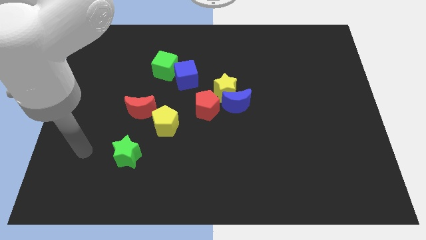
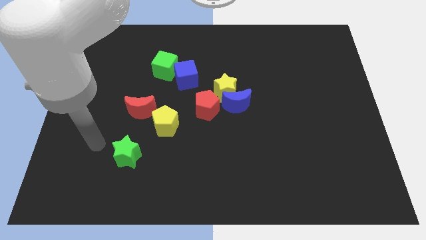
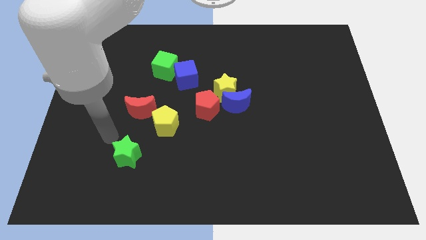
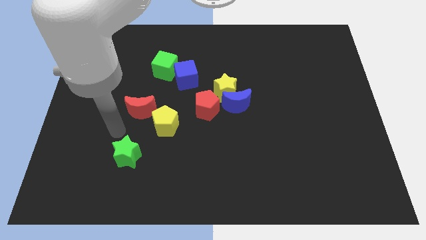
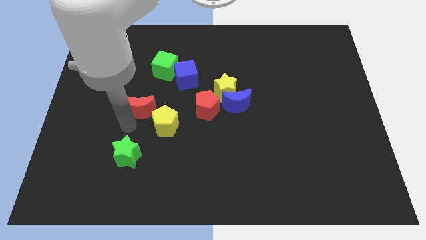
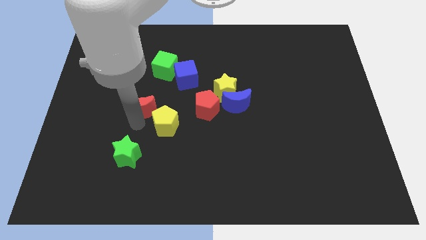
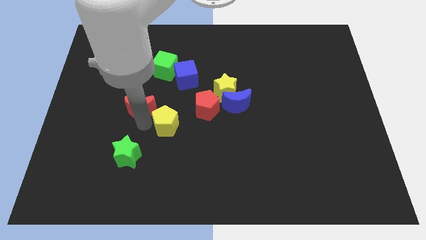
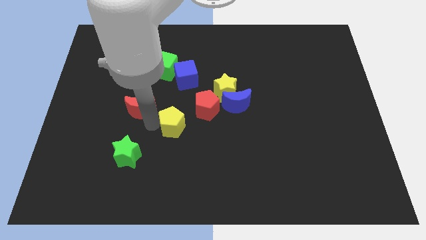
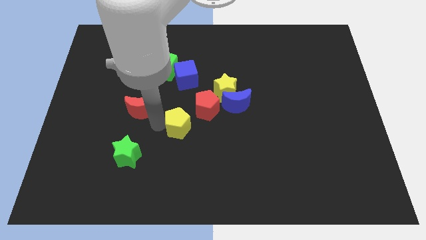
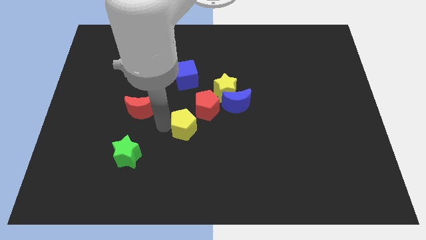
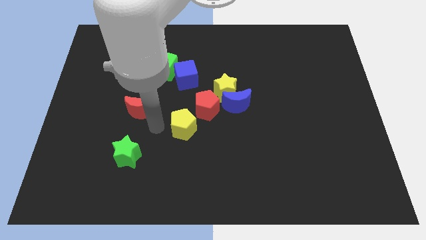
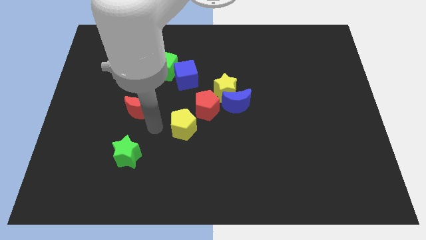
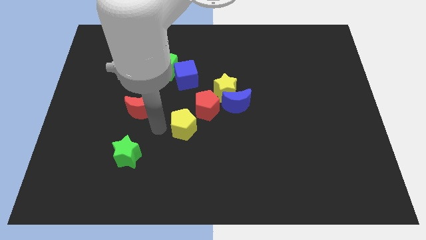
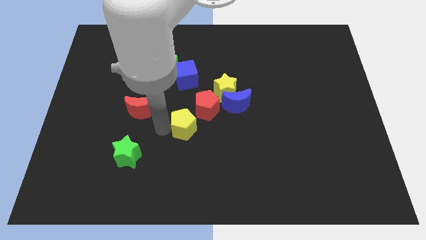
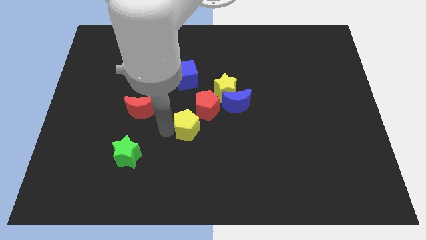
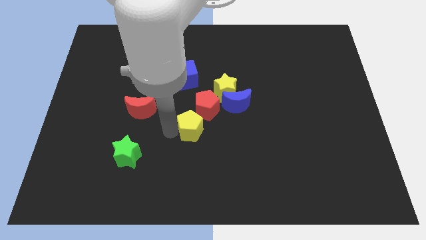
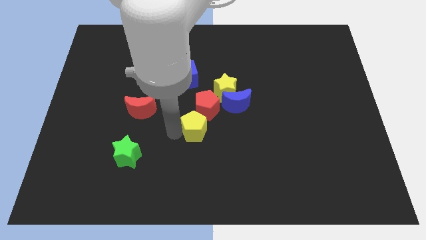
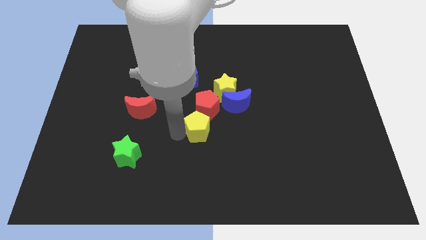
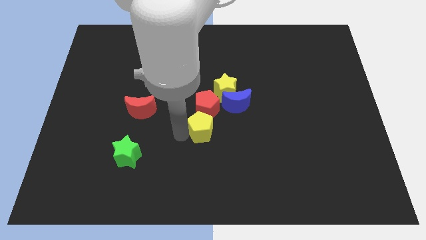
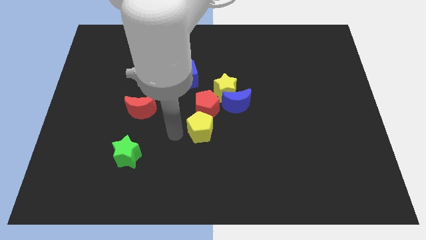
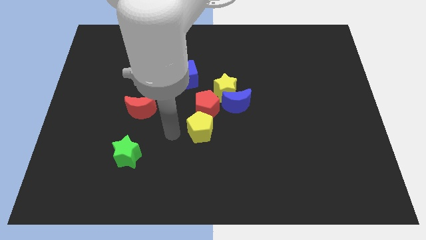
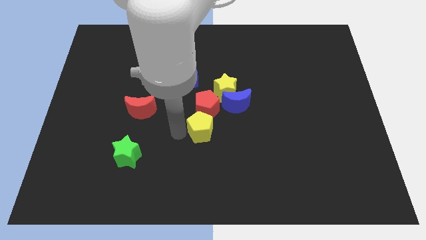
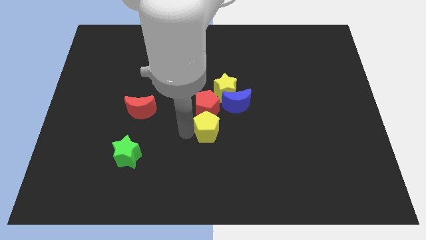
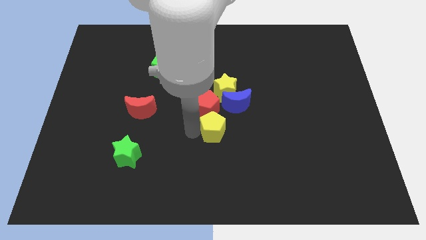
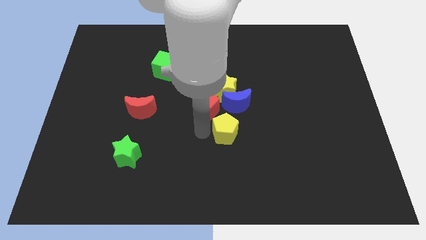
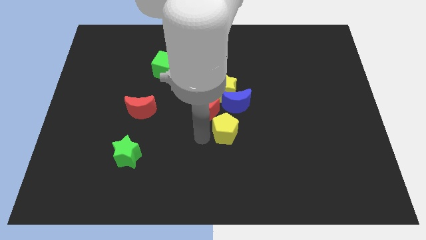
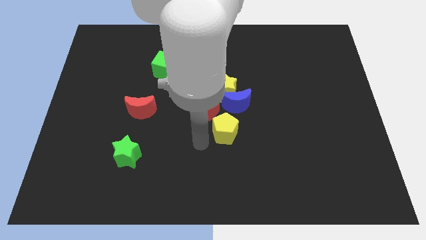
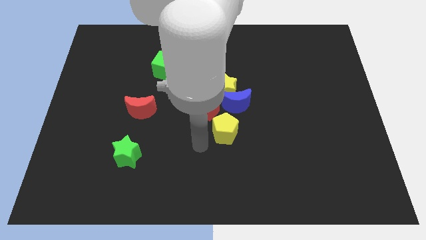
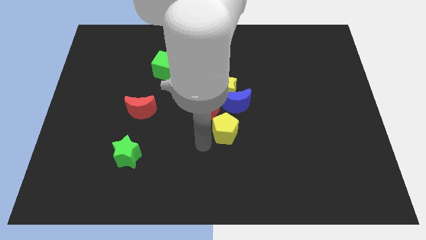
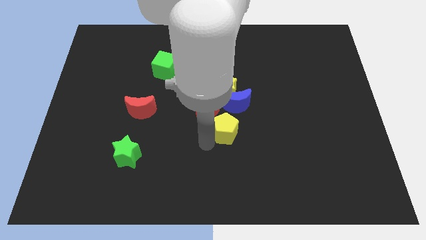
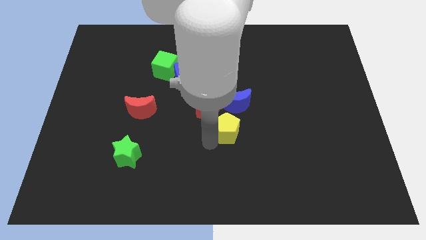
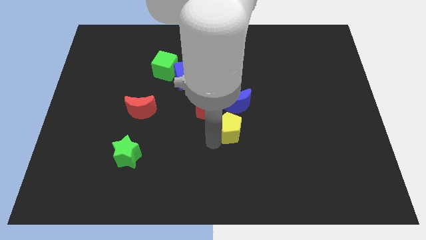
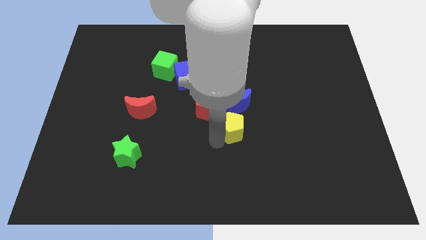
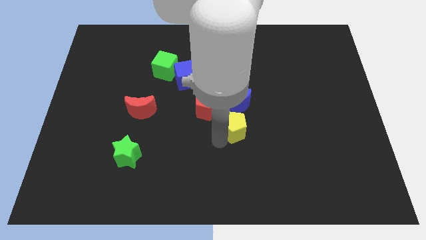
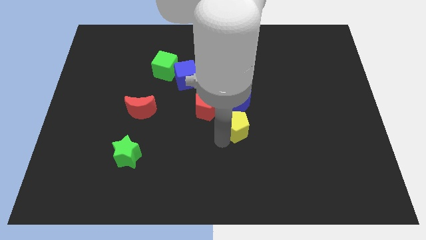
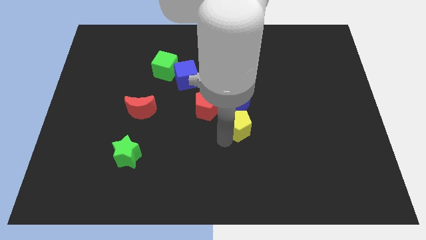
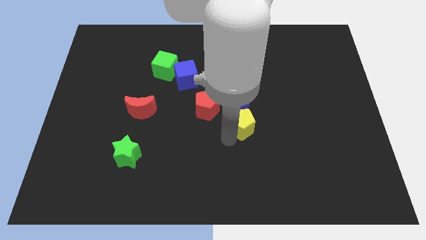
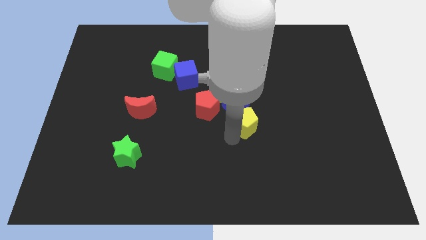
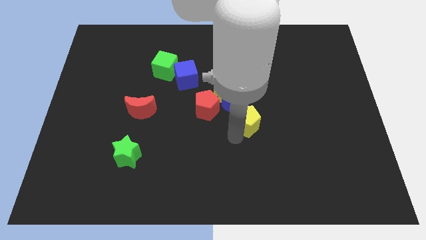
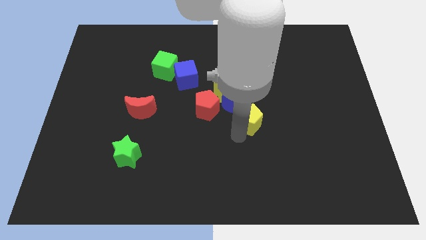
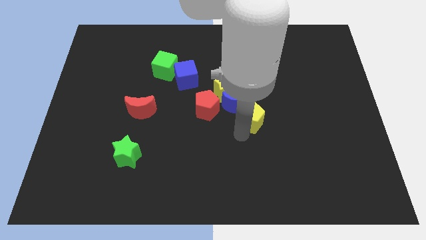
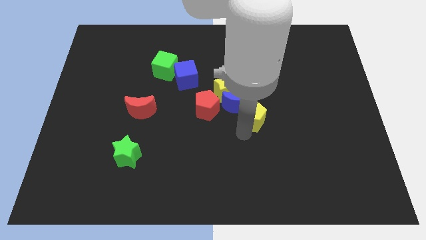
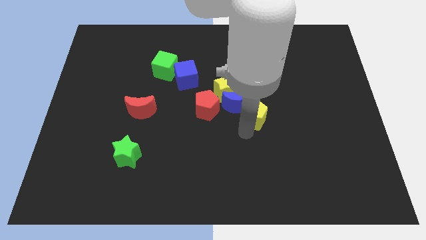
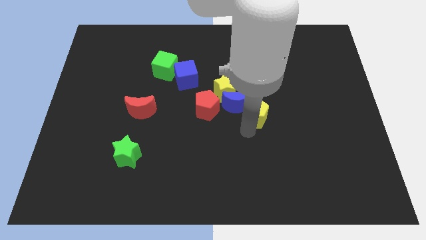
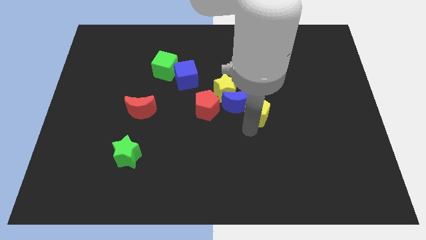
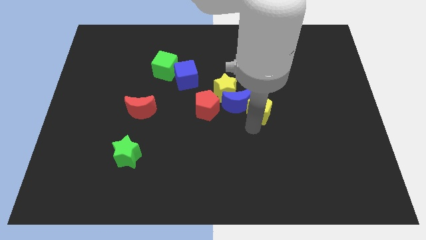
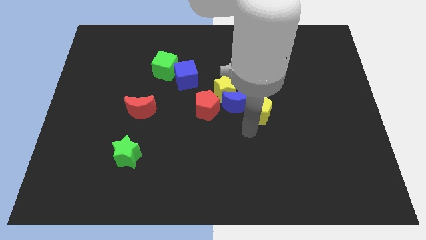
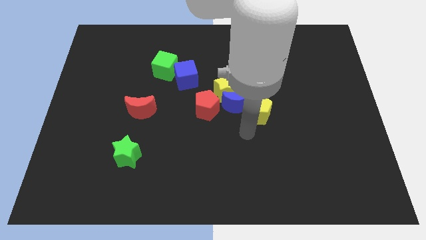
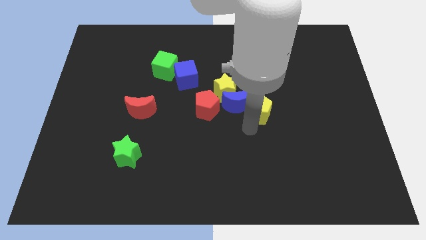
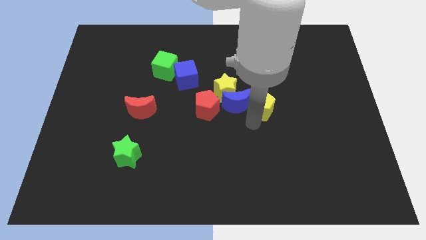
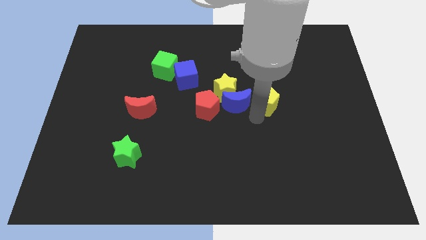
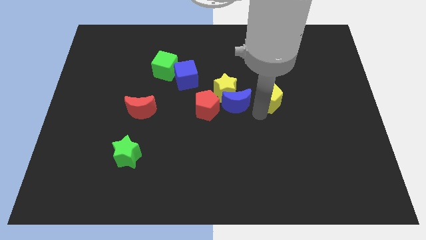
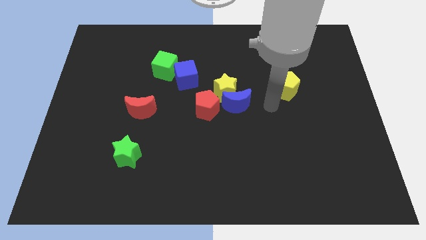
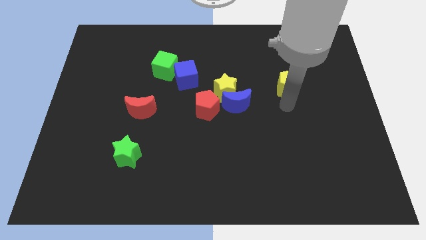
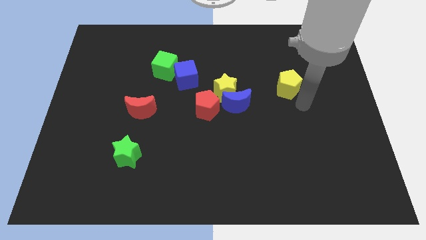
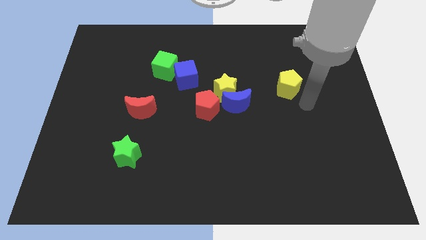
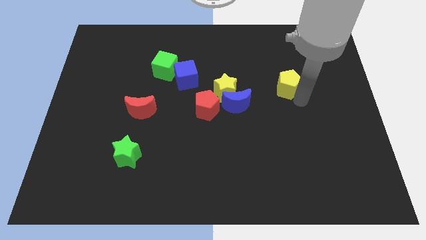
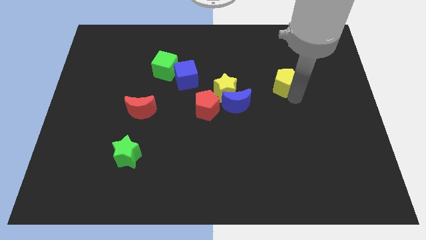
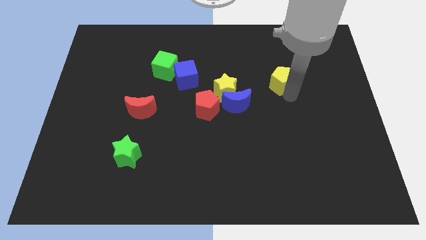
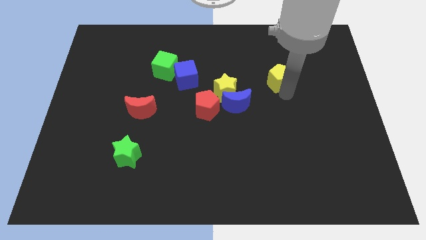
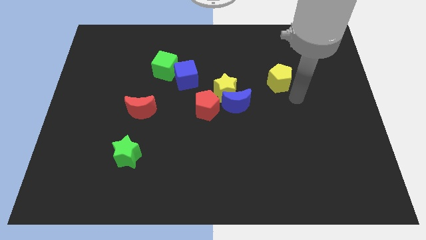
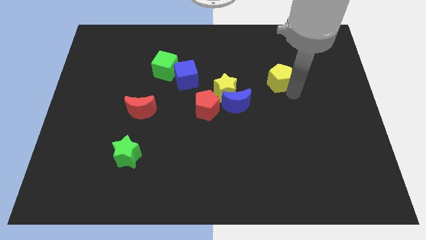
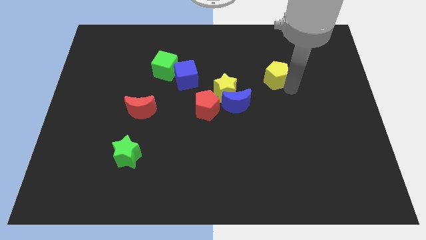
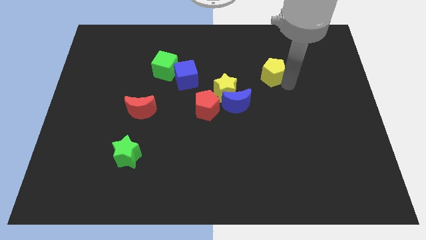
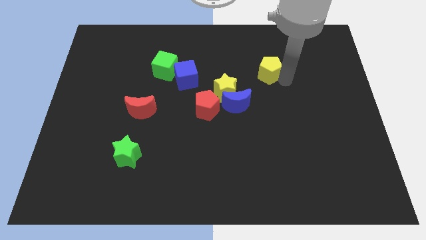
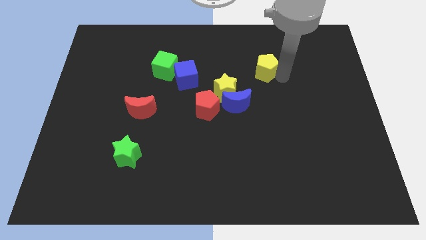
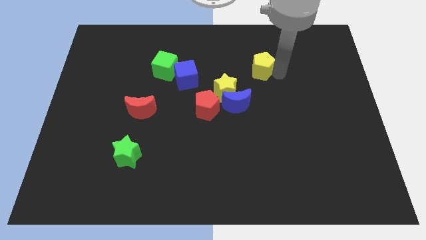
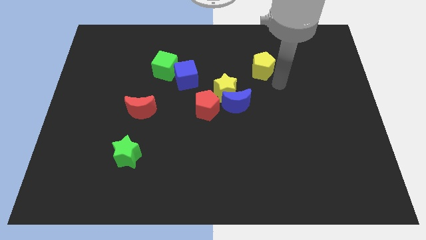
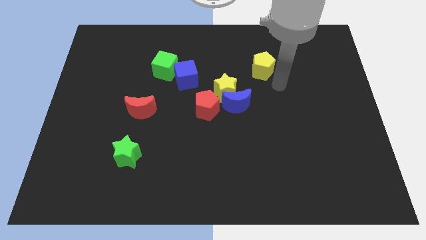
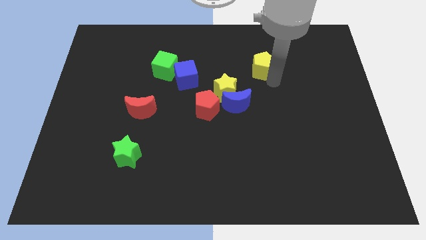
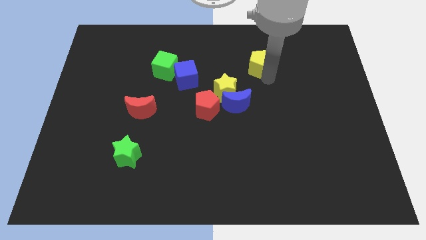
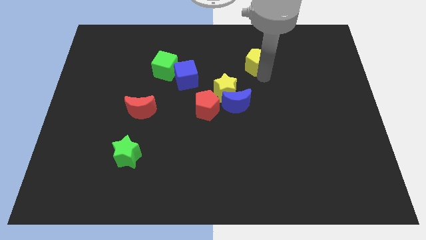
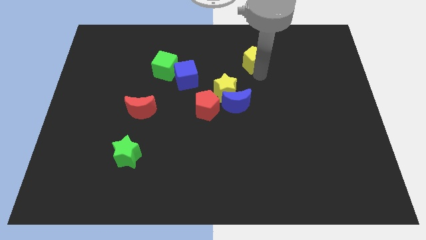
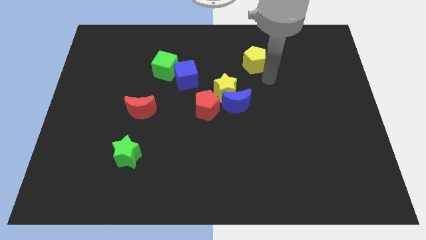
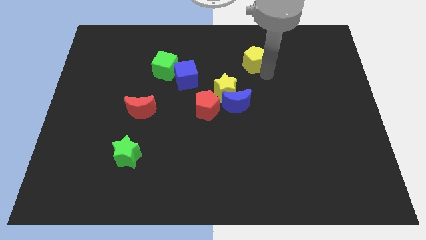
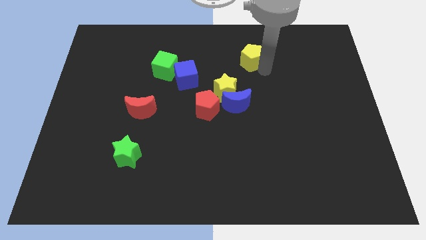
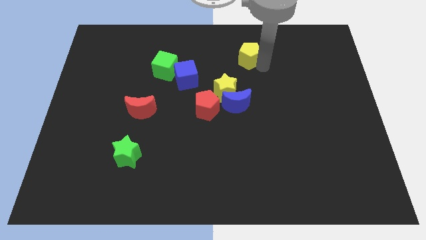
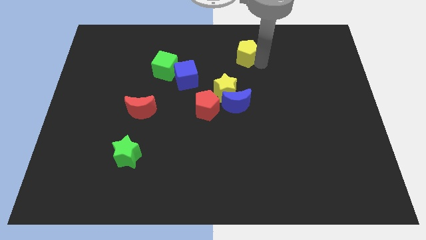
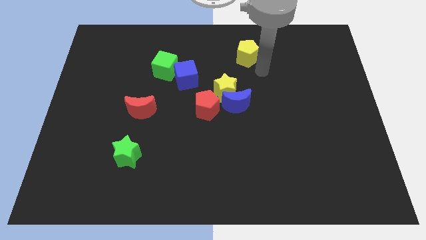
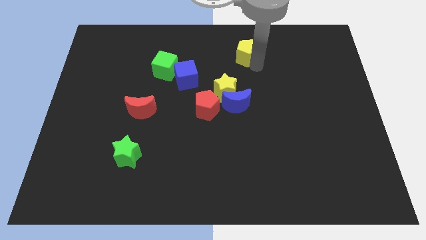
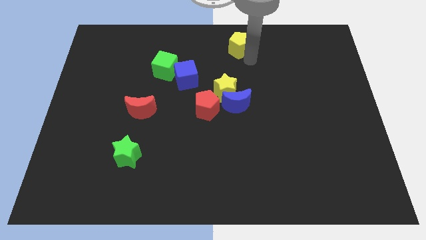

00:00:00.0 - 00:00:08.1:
put the yellow pentagon to the top
